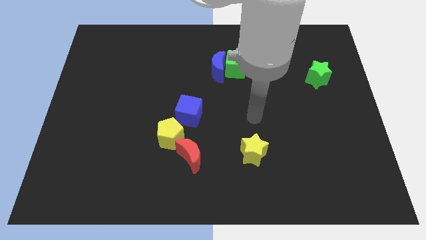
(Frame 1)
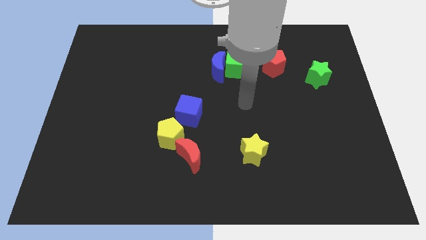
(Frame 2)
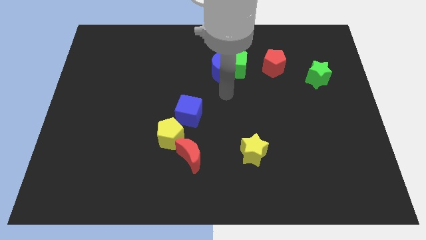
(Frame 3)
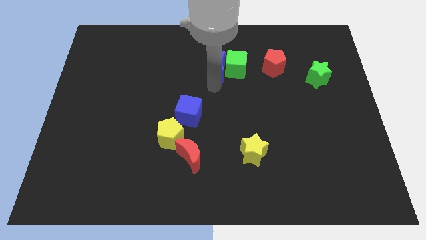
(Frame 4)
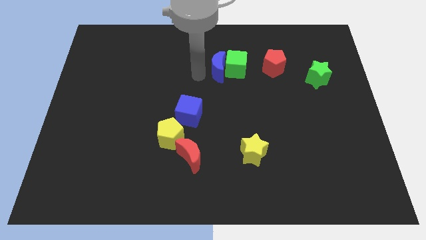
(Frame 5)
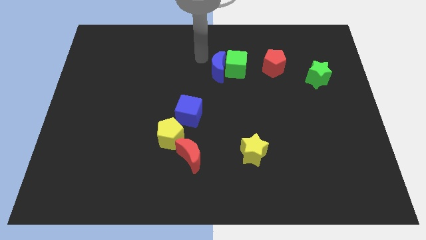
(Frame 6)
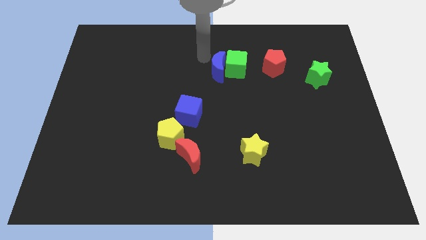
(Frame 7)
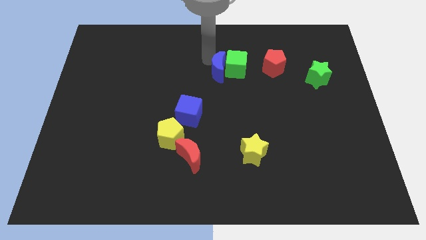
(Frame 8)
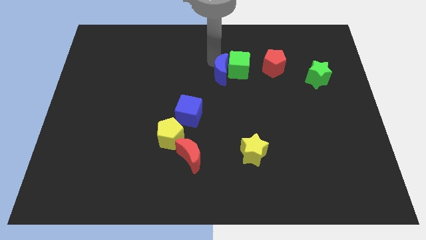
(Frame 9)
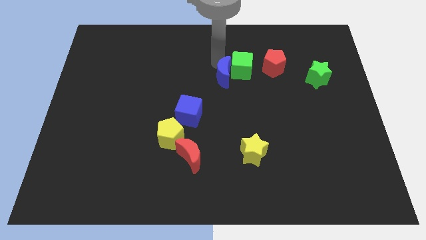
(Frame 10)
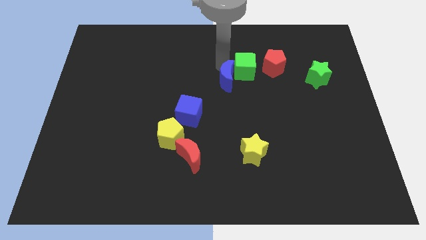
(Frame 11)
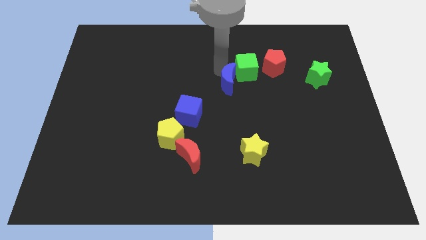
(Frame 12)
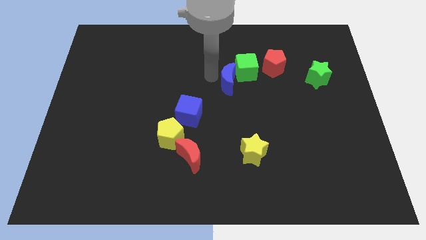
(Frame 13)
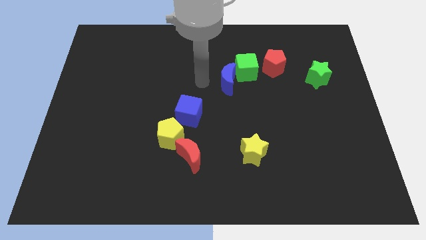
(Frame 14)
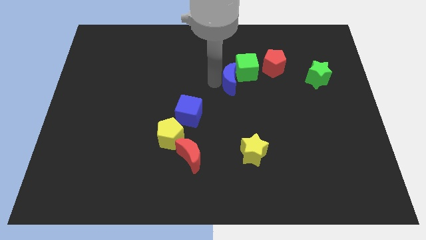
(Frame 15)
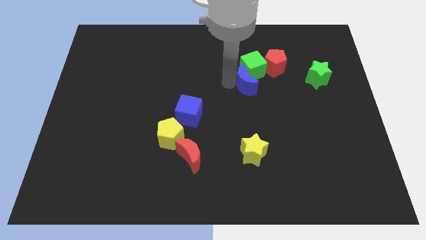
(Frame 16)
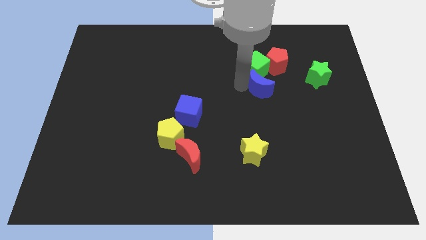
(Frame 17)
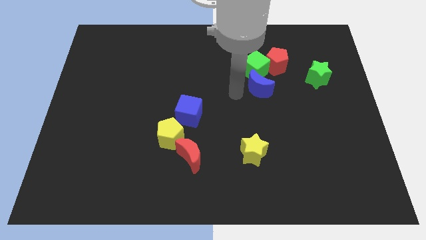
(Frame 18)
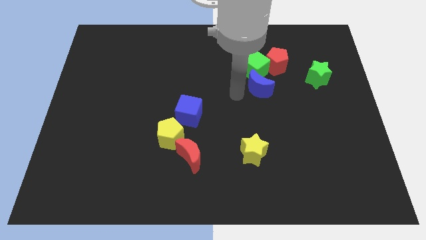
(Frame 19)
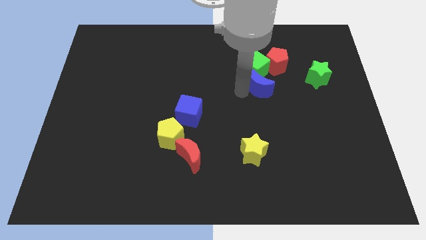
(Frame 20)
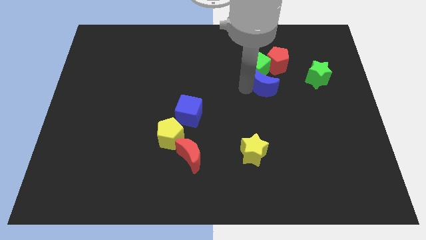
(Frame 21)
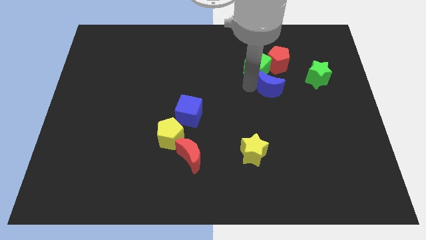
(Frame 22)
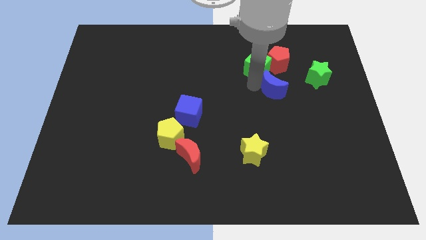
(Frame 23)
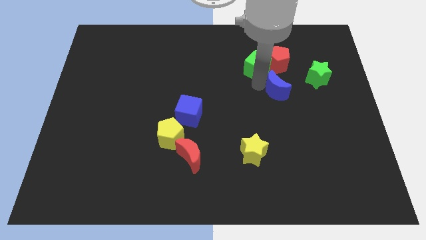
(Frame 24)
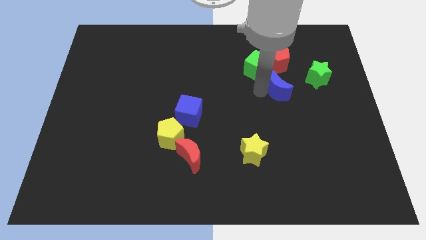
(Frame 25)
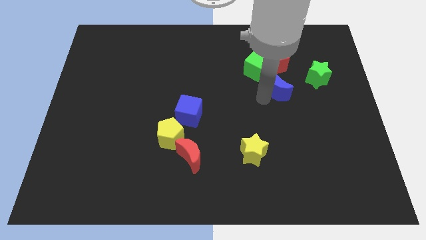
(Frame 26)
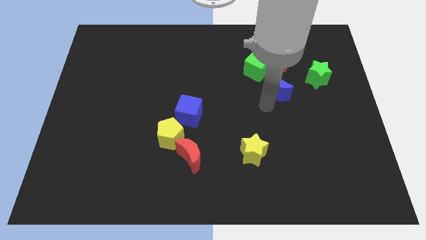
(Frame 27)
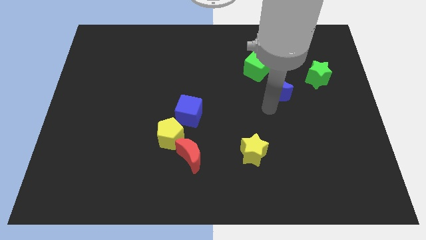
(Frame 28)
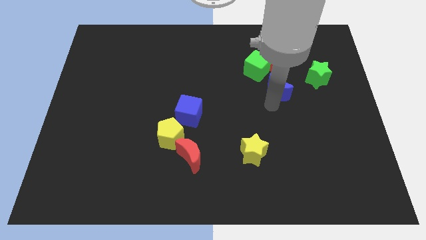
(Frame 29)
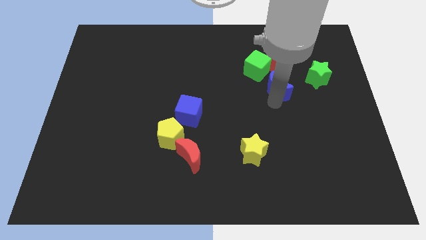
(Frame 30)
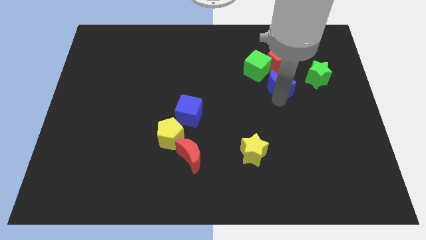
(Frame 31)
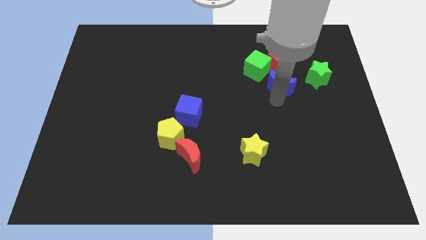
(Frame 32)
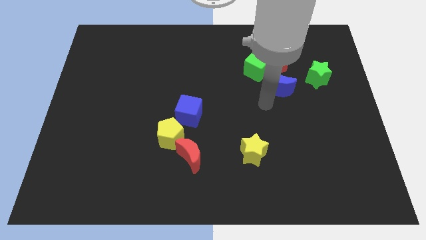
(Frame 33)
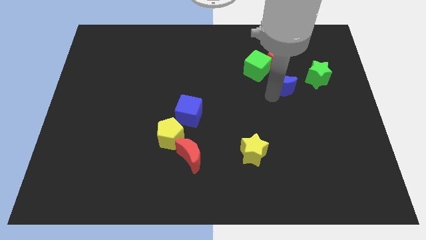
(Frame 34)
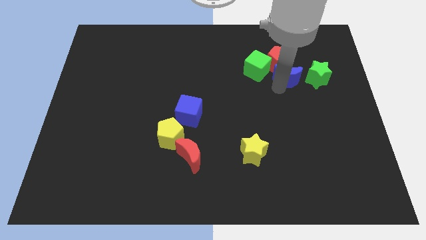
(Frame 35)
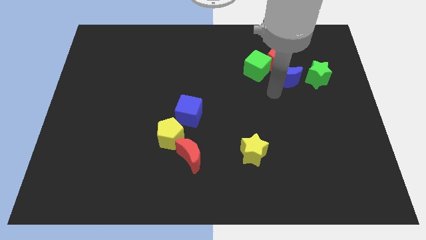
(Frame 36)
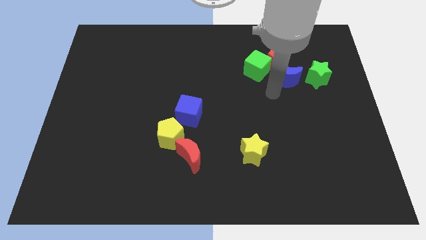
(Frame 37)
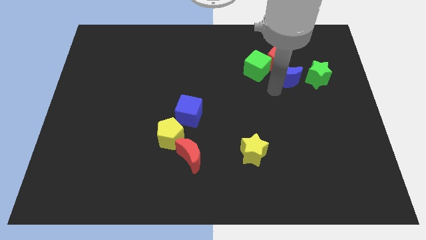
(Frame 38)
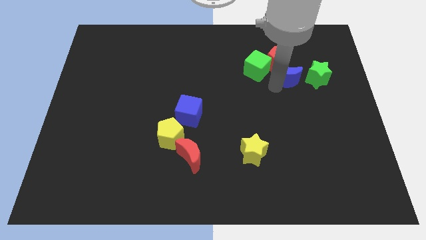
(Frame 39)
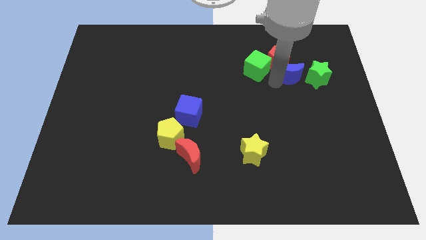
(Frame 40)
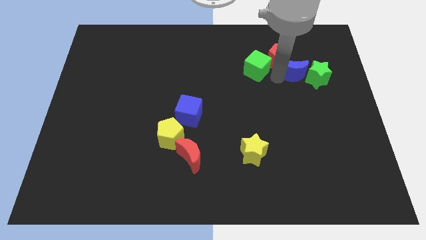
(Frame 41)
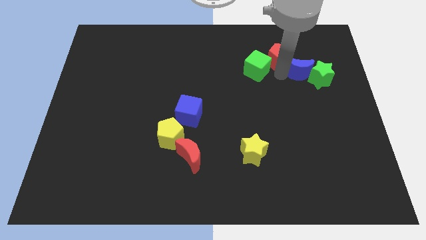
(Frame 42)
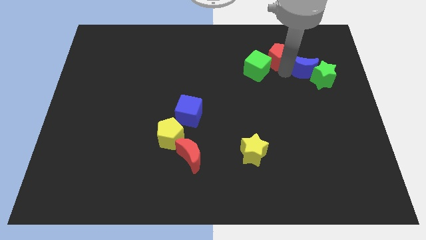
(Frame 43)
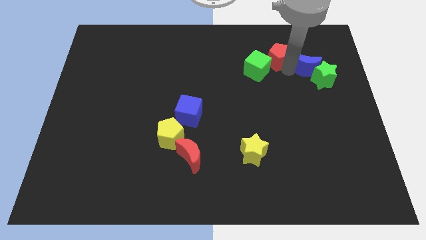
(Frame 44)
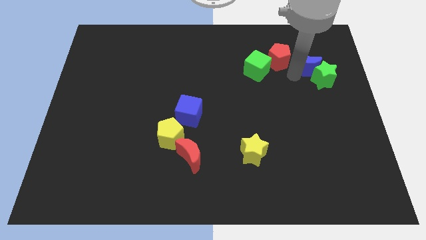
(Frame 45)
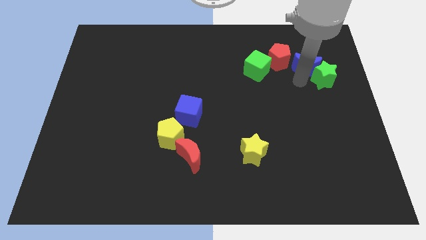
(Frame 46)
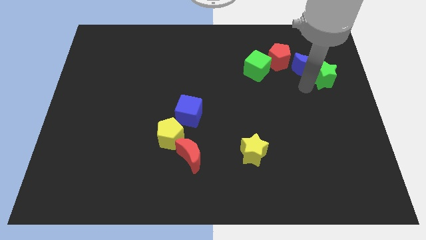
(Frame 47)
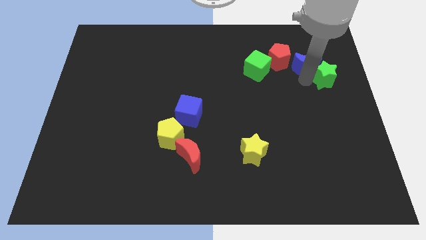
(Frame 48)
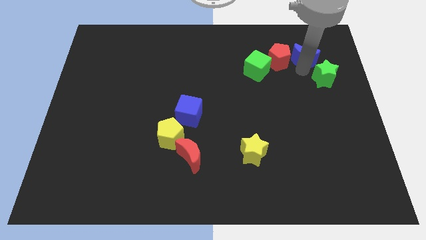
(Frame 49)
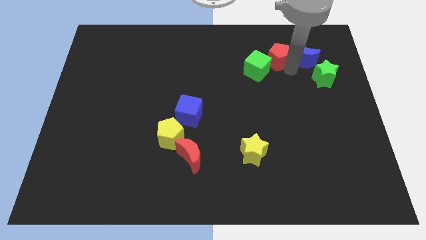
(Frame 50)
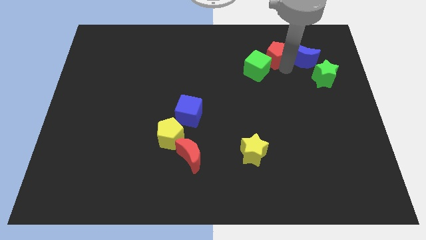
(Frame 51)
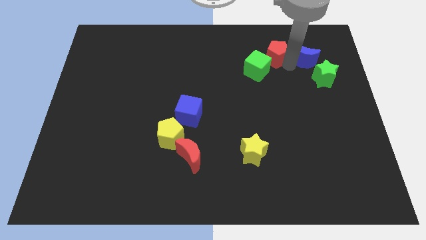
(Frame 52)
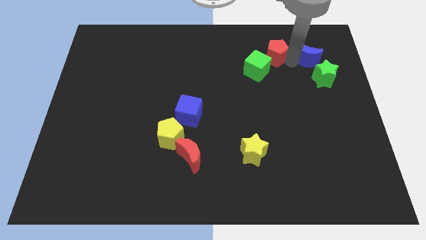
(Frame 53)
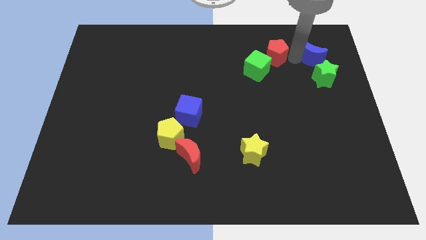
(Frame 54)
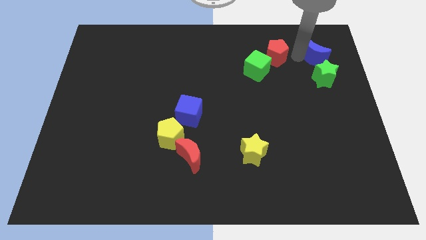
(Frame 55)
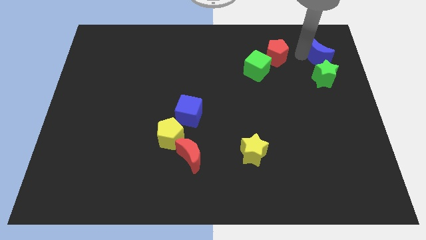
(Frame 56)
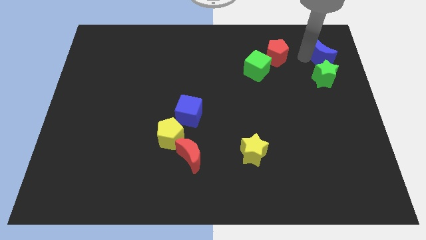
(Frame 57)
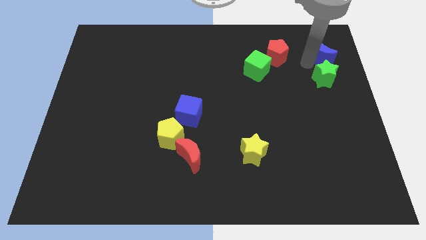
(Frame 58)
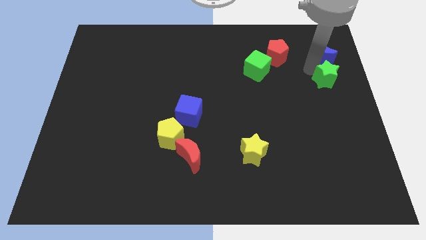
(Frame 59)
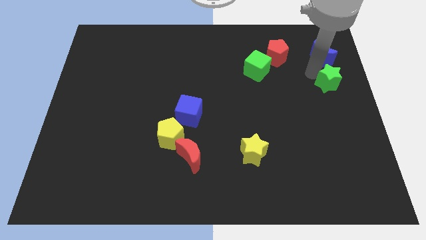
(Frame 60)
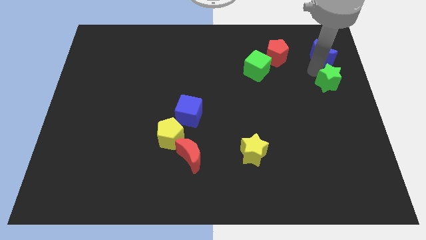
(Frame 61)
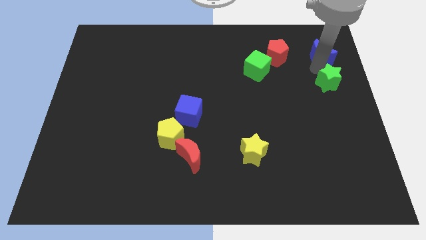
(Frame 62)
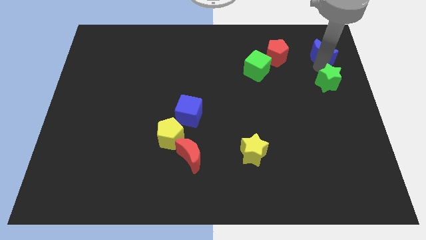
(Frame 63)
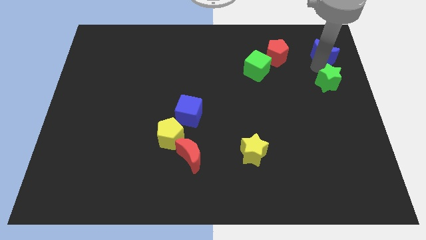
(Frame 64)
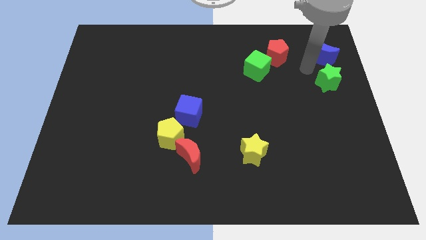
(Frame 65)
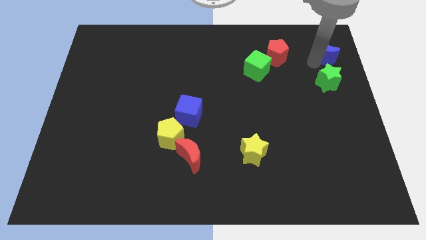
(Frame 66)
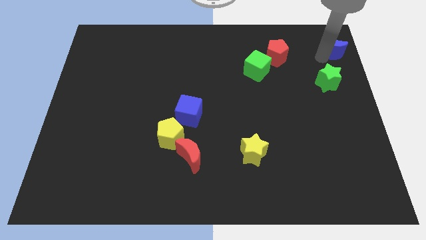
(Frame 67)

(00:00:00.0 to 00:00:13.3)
push the blue moon to the top right
